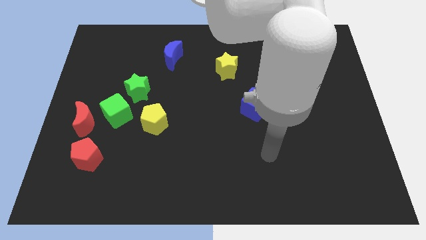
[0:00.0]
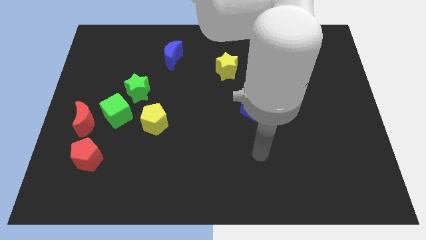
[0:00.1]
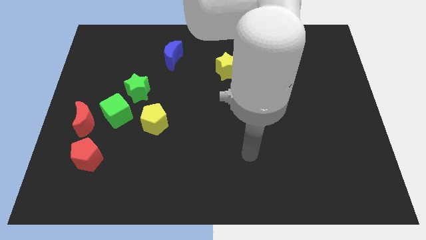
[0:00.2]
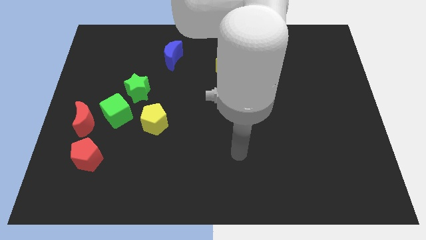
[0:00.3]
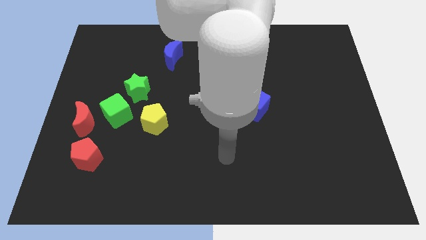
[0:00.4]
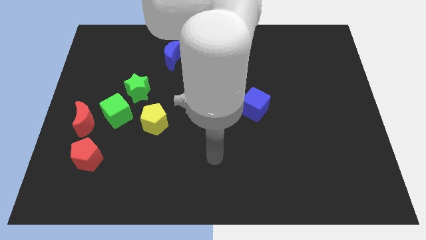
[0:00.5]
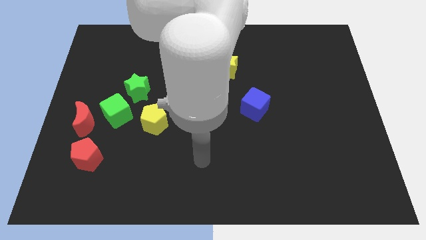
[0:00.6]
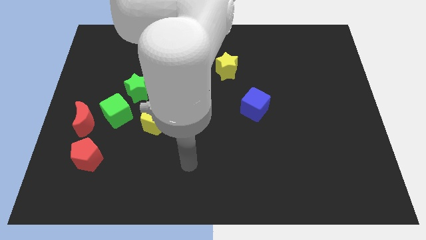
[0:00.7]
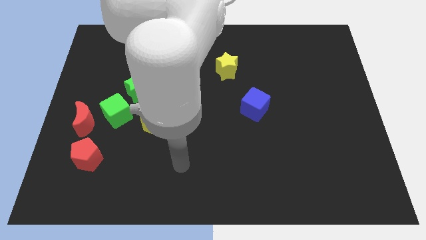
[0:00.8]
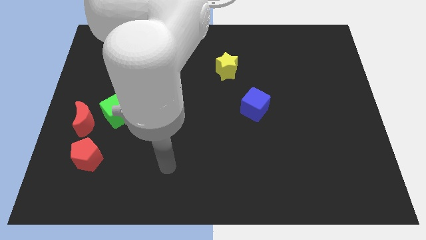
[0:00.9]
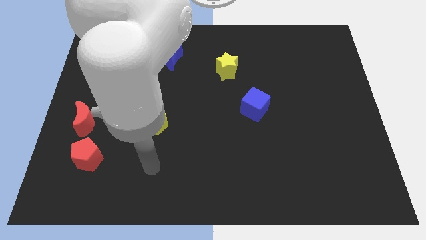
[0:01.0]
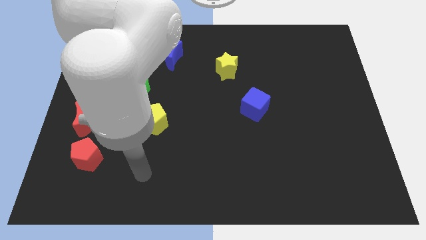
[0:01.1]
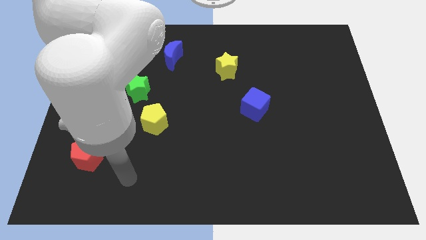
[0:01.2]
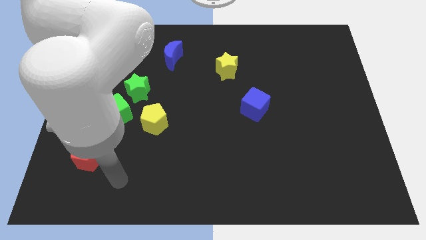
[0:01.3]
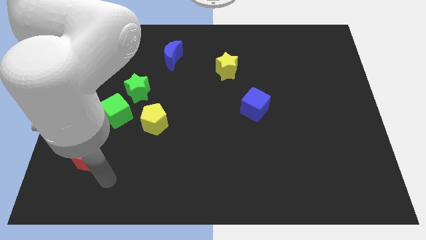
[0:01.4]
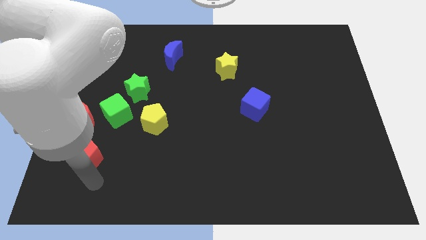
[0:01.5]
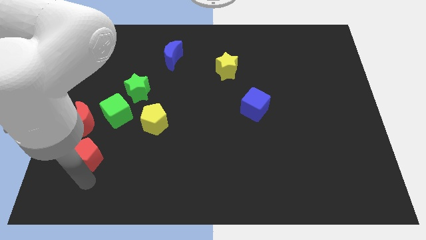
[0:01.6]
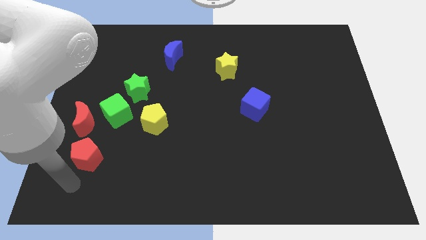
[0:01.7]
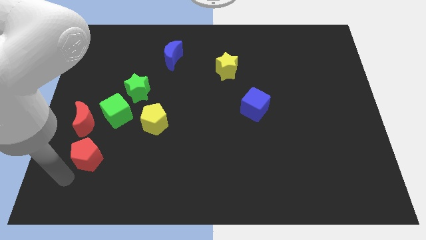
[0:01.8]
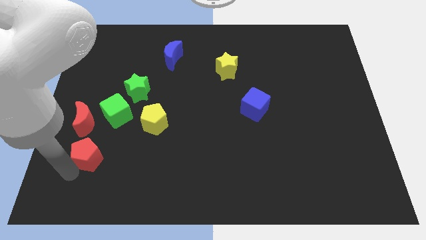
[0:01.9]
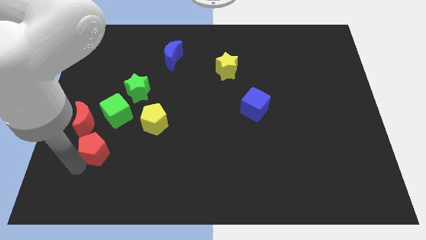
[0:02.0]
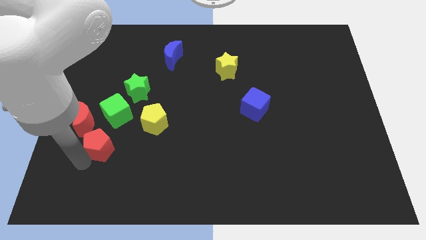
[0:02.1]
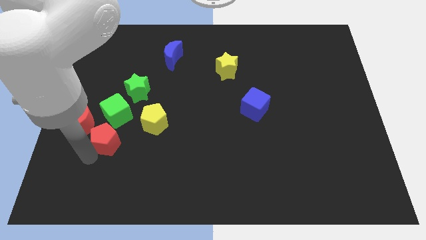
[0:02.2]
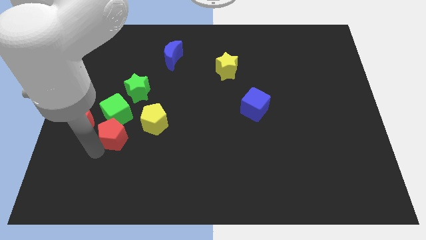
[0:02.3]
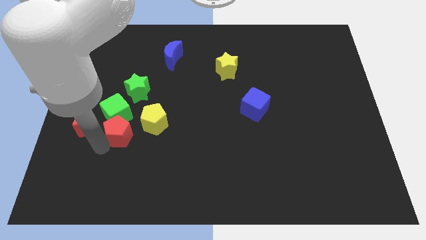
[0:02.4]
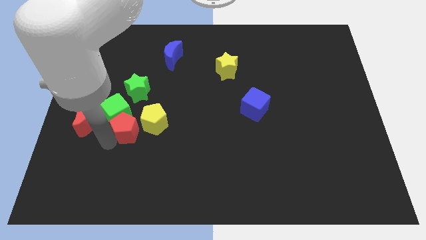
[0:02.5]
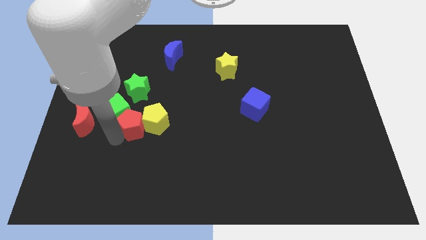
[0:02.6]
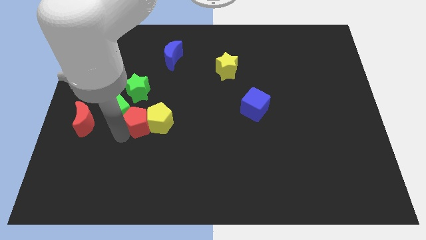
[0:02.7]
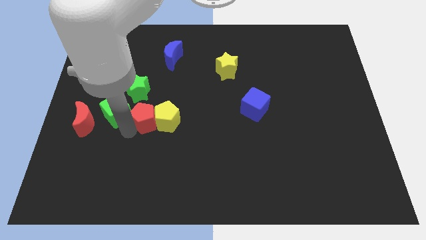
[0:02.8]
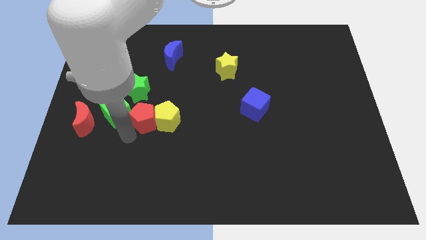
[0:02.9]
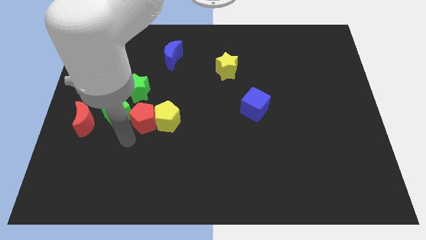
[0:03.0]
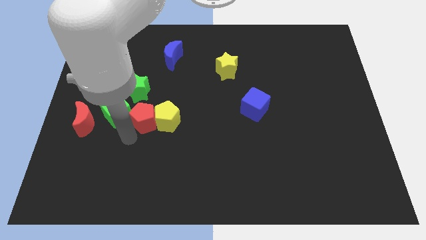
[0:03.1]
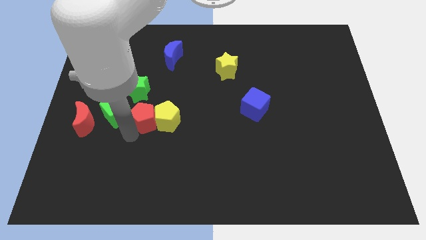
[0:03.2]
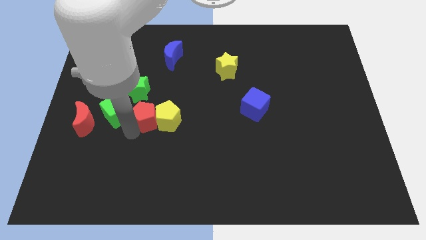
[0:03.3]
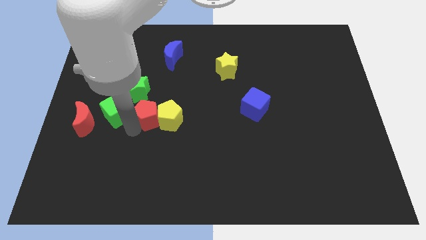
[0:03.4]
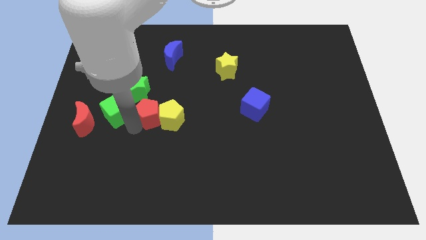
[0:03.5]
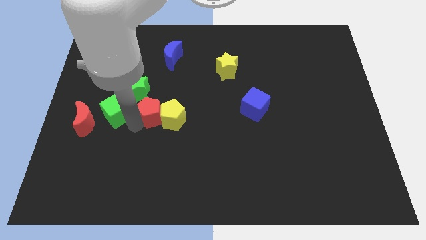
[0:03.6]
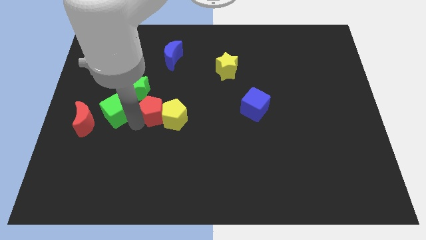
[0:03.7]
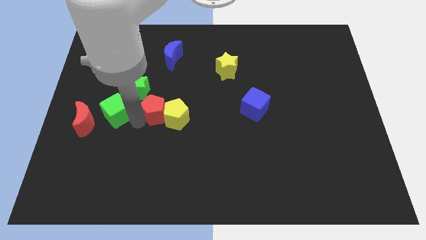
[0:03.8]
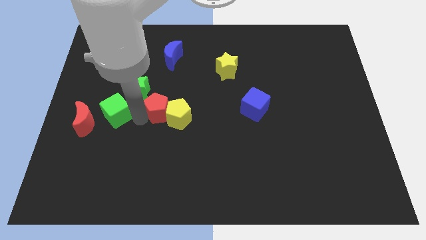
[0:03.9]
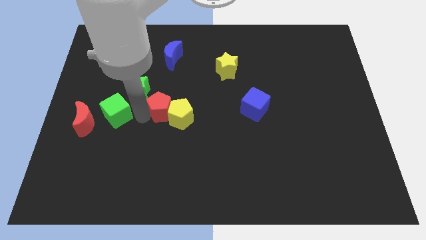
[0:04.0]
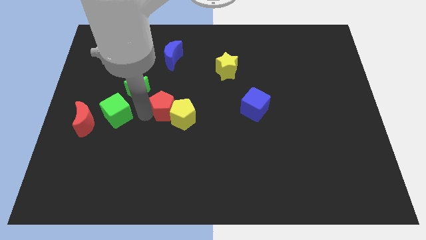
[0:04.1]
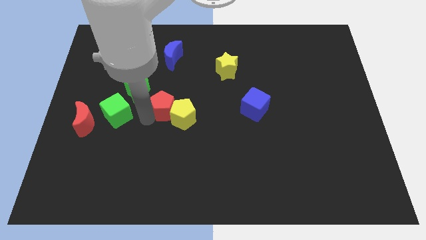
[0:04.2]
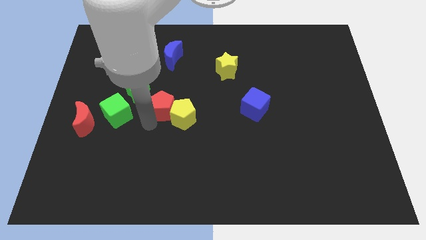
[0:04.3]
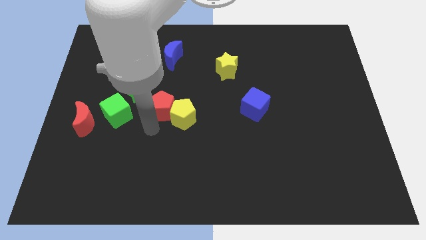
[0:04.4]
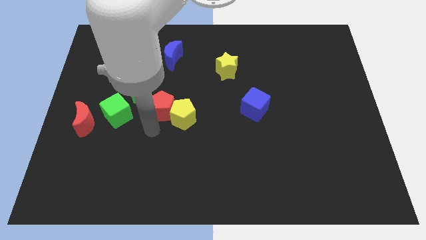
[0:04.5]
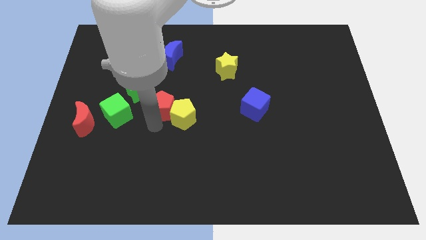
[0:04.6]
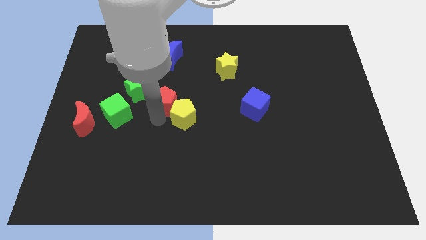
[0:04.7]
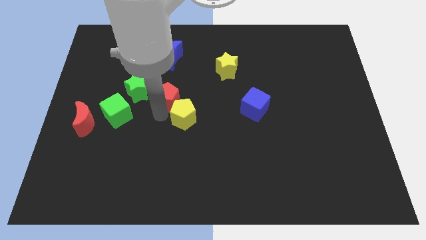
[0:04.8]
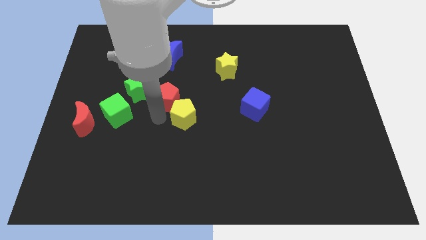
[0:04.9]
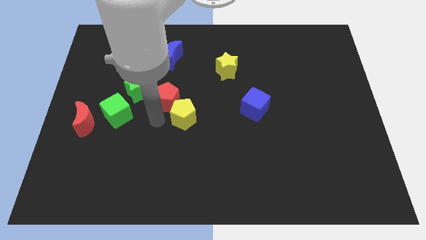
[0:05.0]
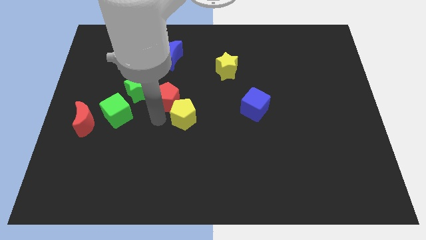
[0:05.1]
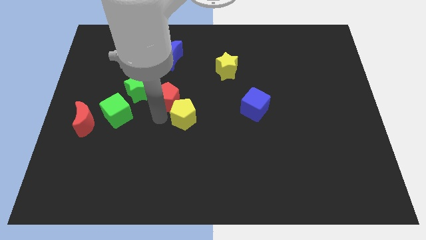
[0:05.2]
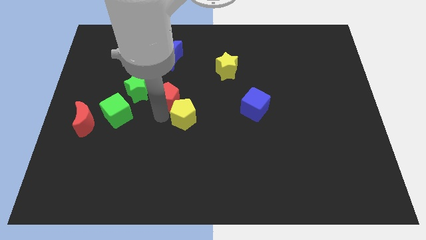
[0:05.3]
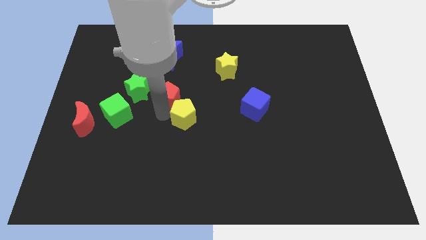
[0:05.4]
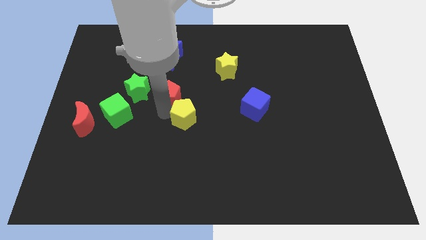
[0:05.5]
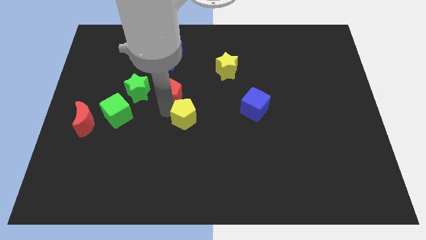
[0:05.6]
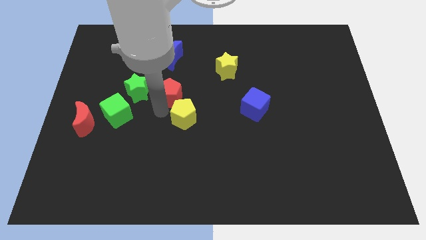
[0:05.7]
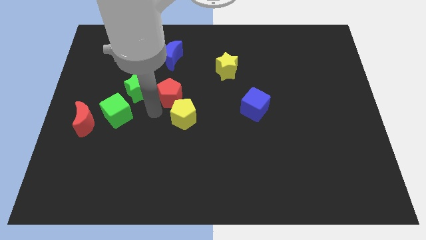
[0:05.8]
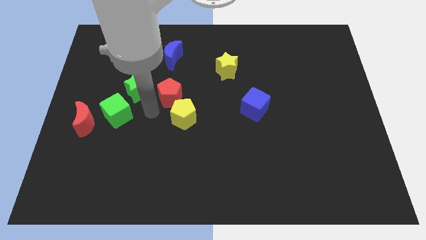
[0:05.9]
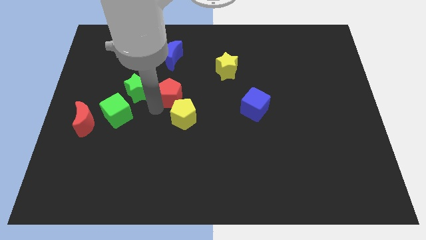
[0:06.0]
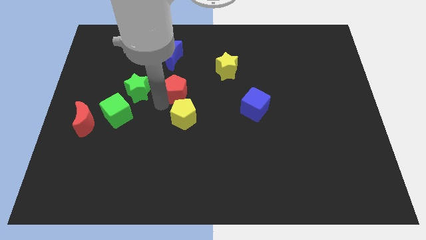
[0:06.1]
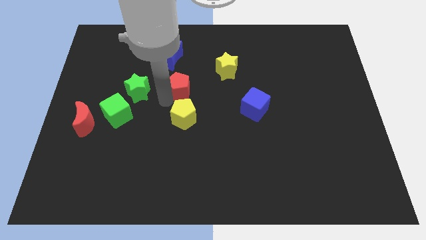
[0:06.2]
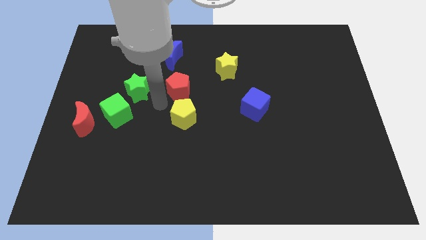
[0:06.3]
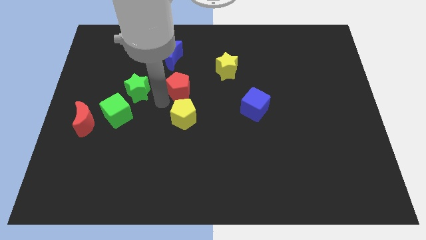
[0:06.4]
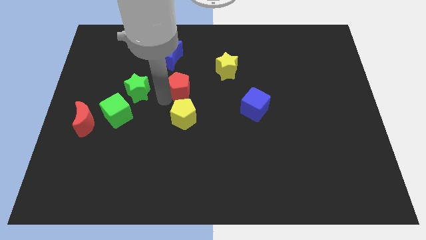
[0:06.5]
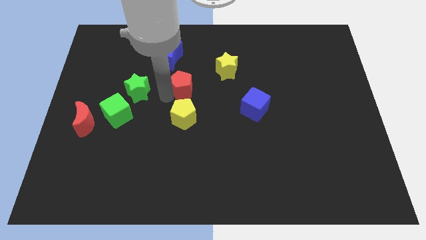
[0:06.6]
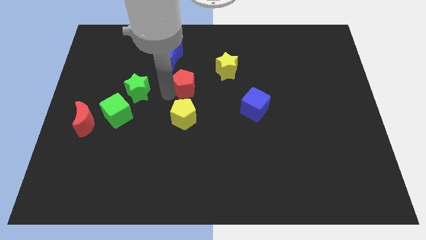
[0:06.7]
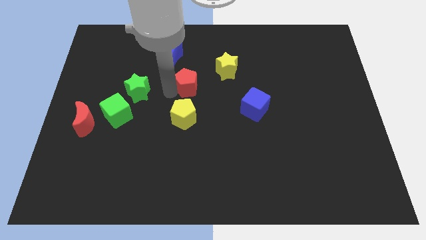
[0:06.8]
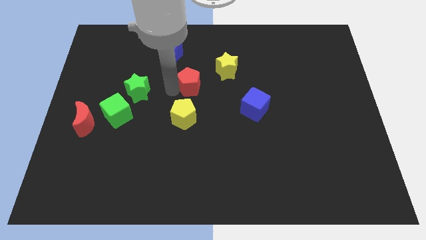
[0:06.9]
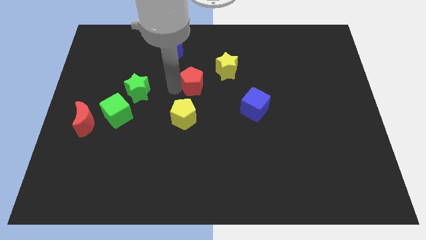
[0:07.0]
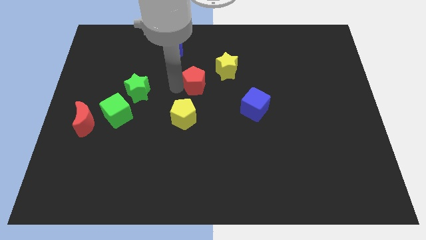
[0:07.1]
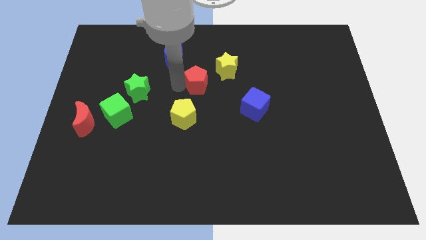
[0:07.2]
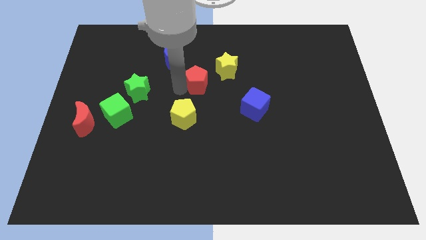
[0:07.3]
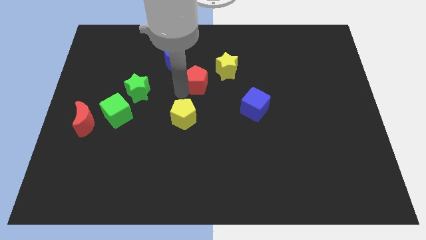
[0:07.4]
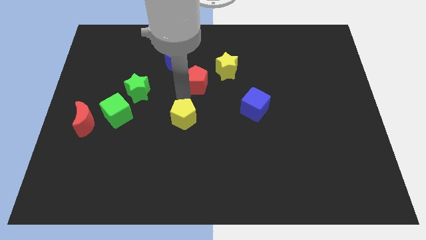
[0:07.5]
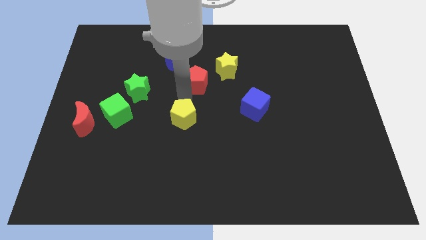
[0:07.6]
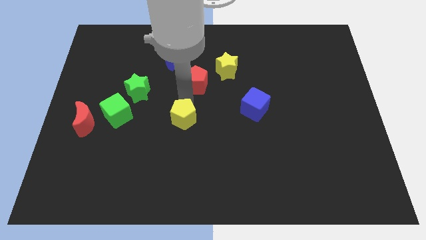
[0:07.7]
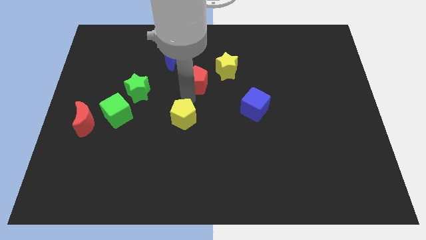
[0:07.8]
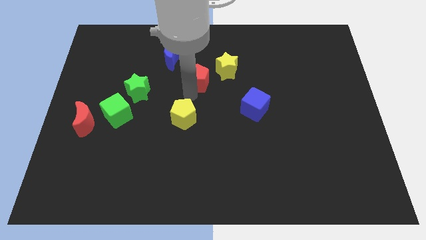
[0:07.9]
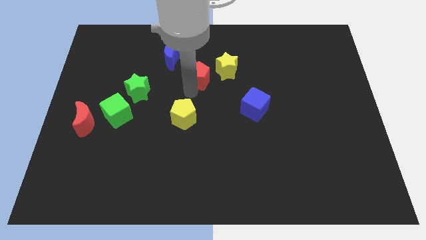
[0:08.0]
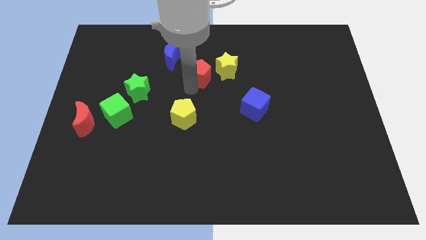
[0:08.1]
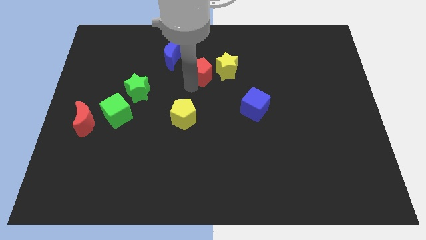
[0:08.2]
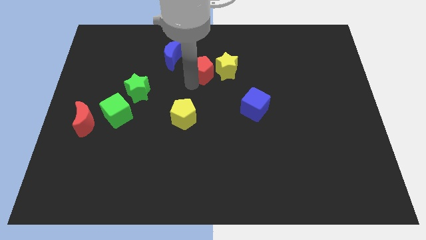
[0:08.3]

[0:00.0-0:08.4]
move the red pentagon towards the yellow star

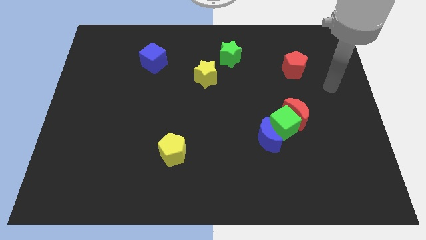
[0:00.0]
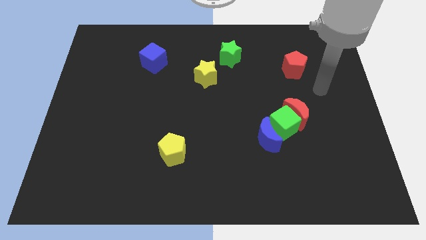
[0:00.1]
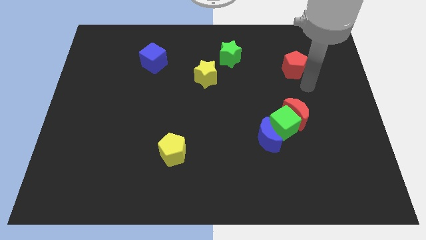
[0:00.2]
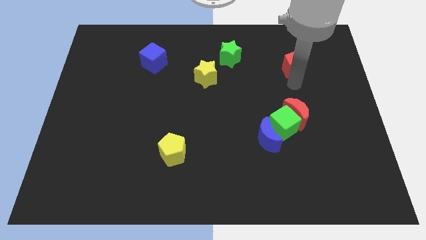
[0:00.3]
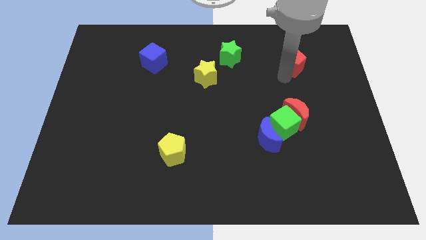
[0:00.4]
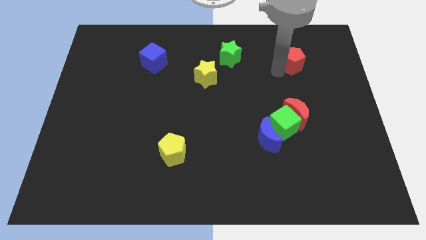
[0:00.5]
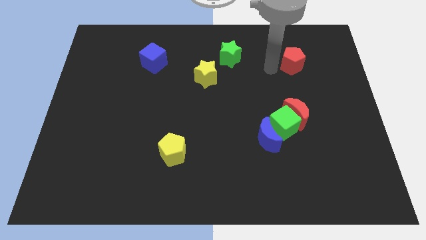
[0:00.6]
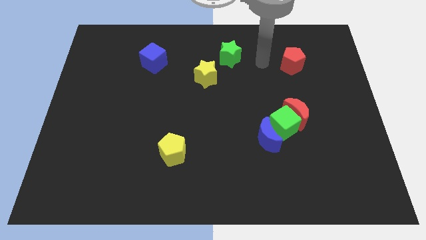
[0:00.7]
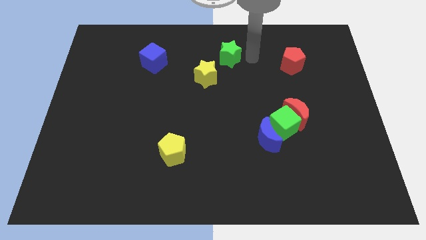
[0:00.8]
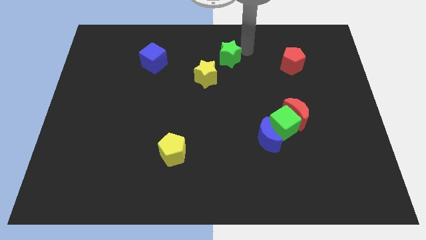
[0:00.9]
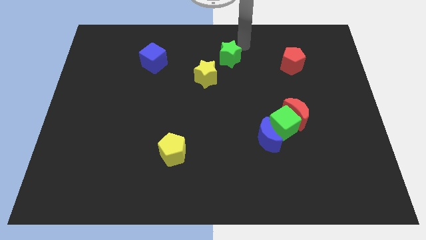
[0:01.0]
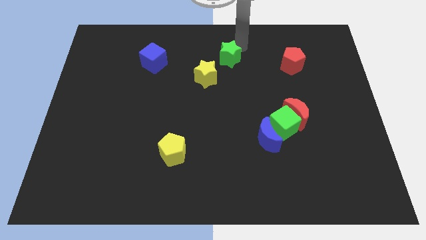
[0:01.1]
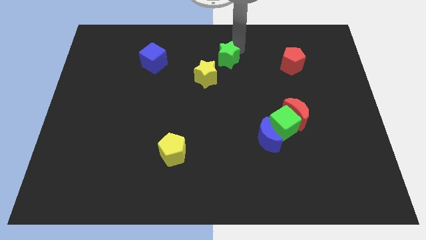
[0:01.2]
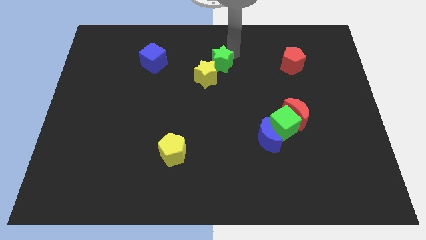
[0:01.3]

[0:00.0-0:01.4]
push the green star close to the yellow star
